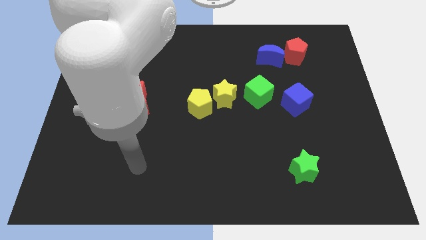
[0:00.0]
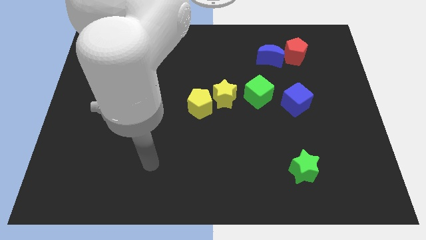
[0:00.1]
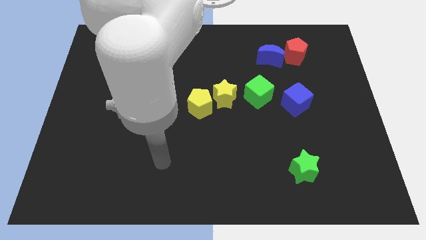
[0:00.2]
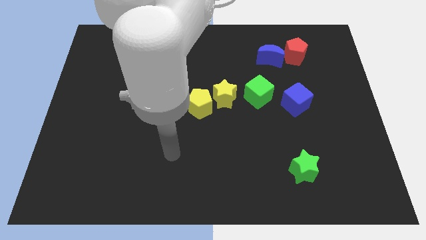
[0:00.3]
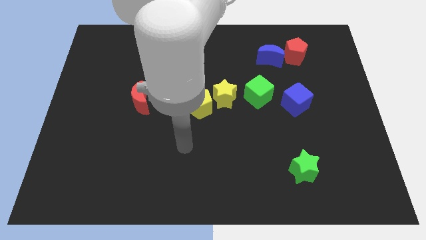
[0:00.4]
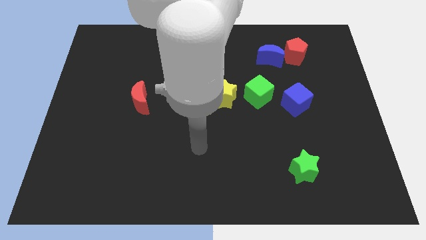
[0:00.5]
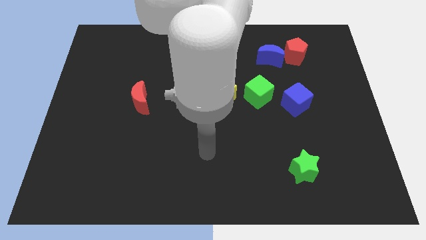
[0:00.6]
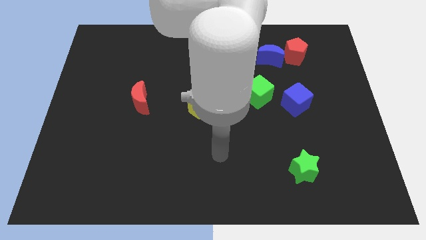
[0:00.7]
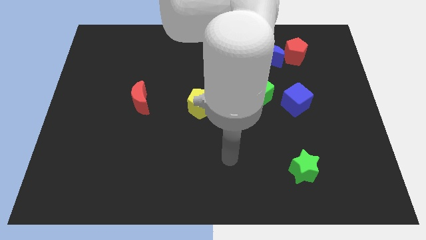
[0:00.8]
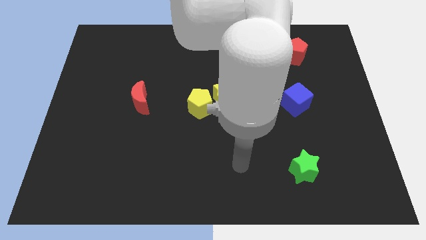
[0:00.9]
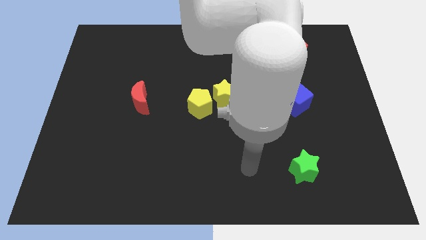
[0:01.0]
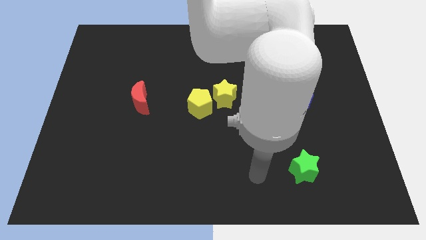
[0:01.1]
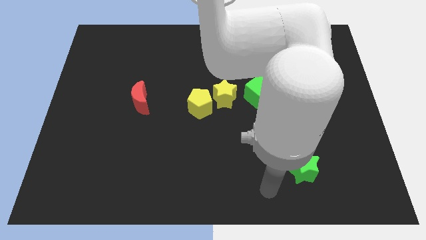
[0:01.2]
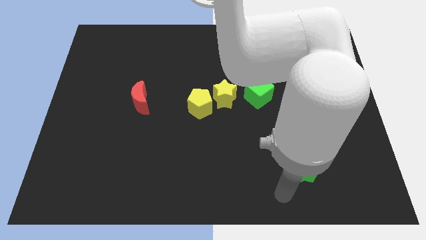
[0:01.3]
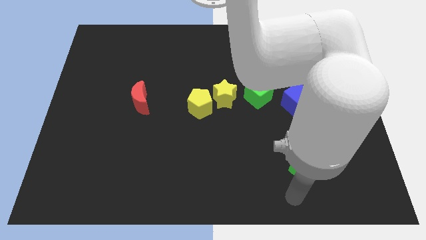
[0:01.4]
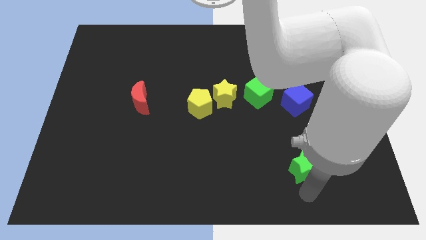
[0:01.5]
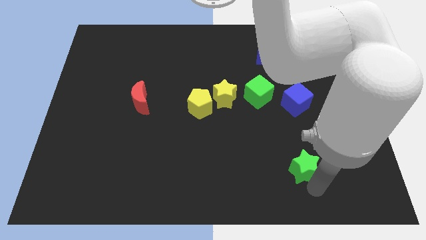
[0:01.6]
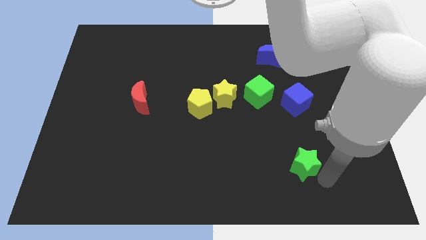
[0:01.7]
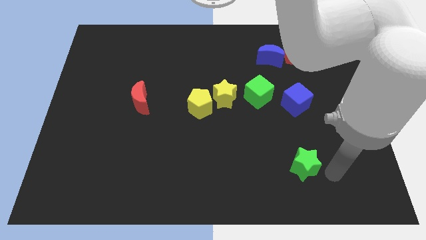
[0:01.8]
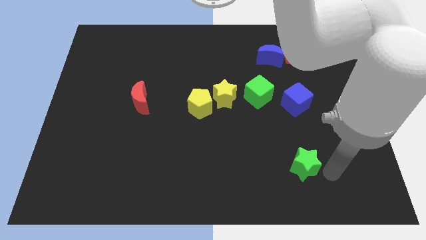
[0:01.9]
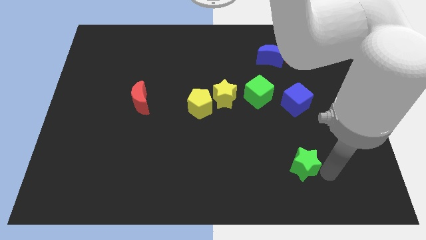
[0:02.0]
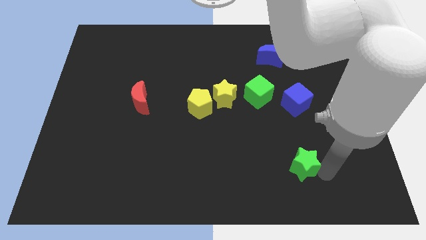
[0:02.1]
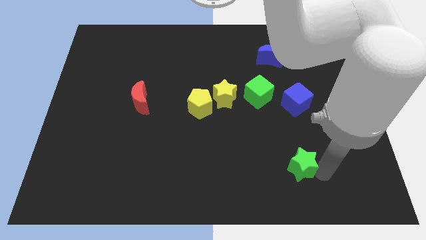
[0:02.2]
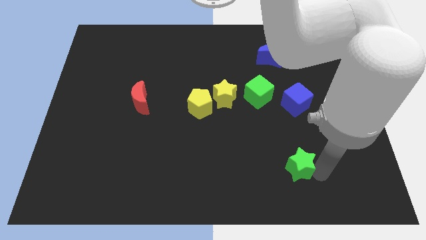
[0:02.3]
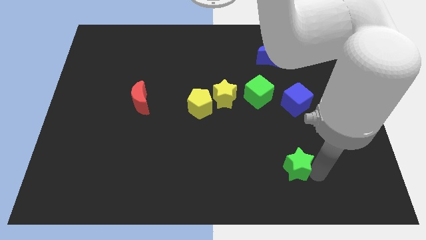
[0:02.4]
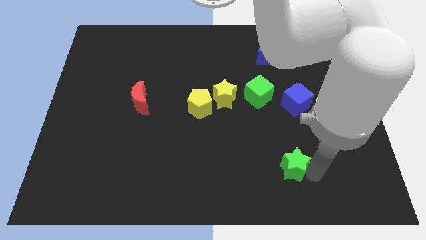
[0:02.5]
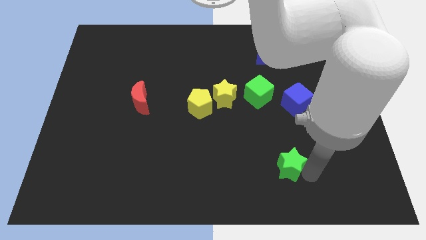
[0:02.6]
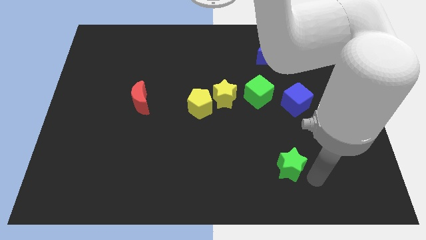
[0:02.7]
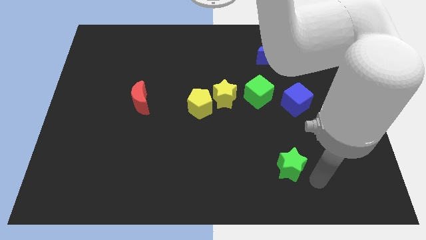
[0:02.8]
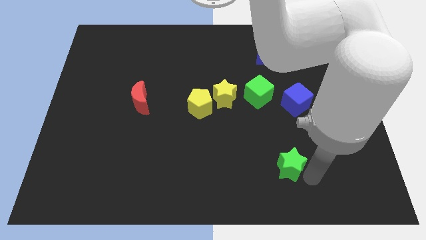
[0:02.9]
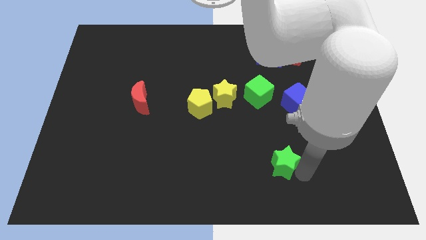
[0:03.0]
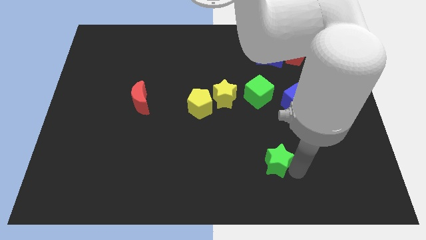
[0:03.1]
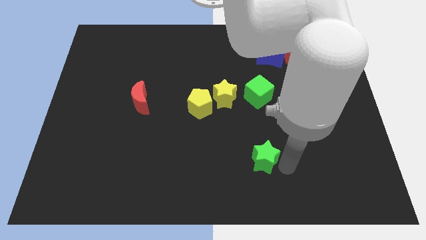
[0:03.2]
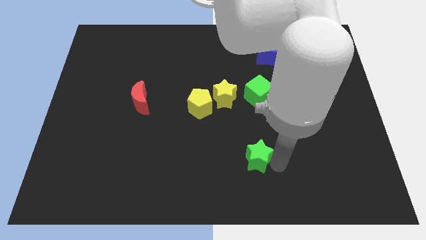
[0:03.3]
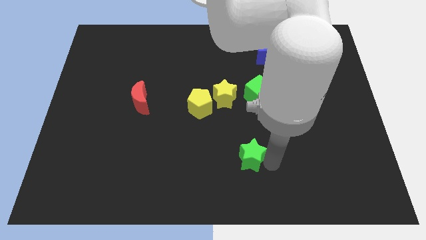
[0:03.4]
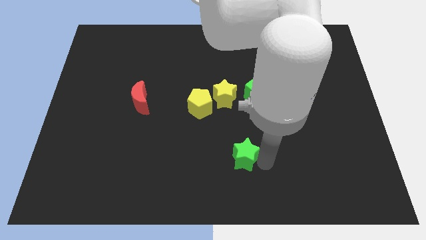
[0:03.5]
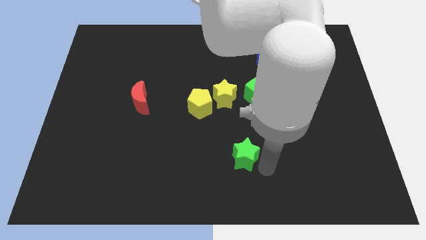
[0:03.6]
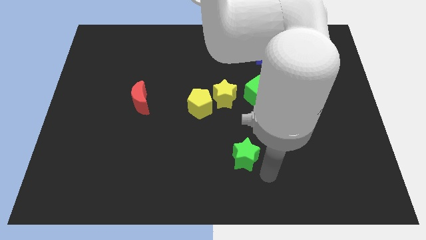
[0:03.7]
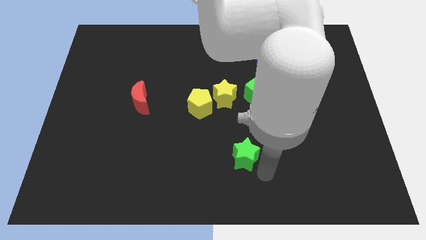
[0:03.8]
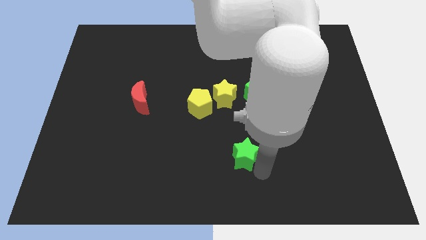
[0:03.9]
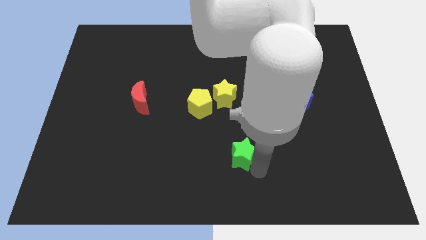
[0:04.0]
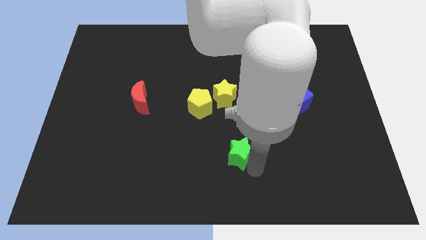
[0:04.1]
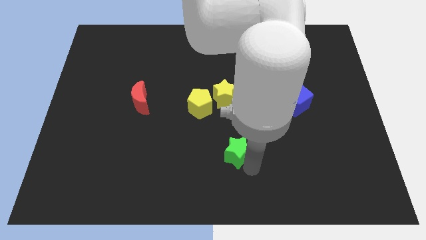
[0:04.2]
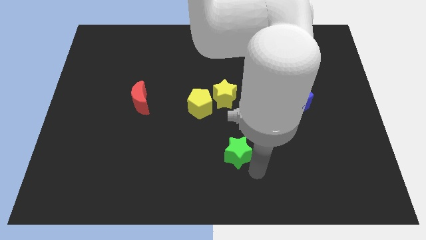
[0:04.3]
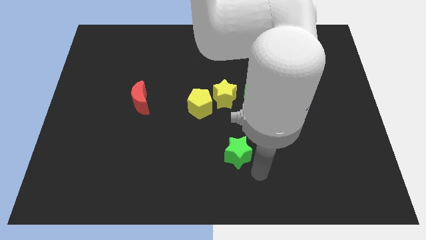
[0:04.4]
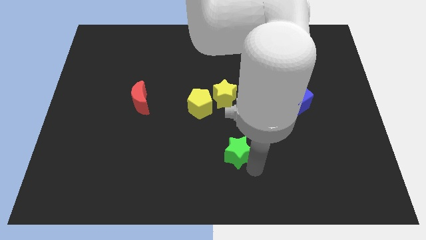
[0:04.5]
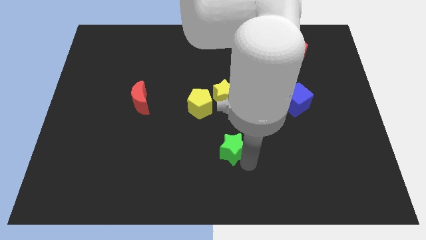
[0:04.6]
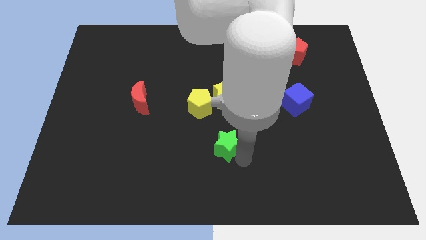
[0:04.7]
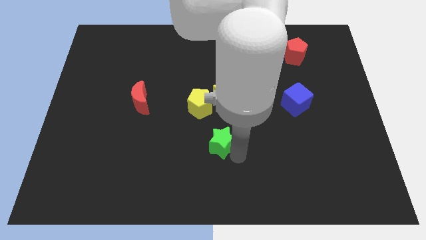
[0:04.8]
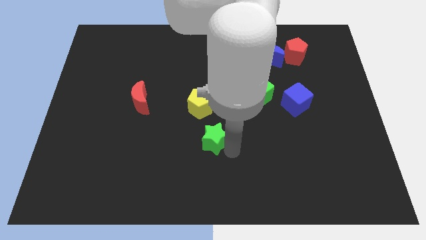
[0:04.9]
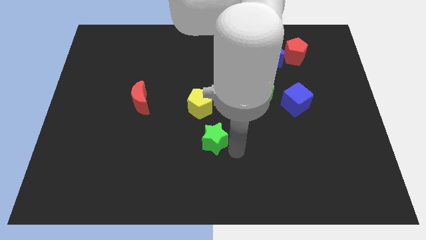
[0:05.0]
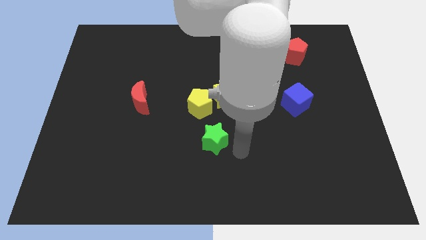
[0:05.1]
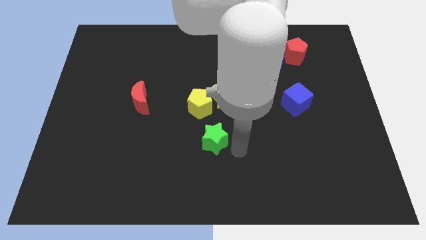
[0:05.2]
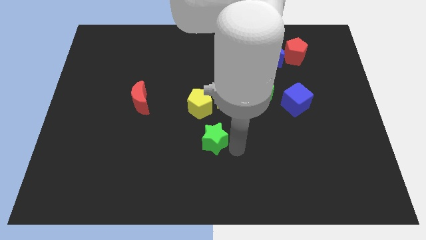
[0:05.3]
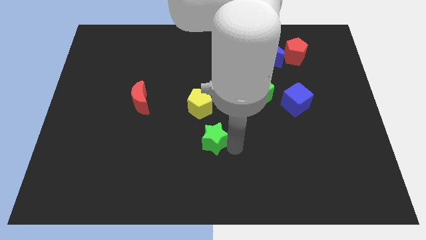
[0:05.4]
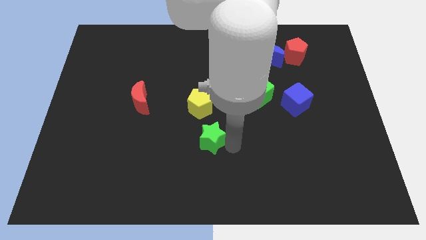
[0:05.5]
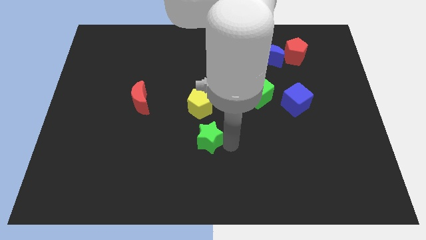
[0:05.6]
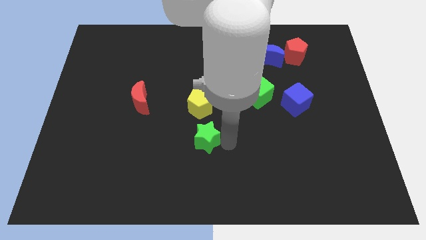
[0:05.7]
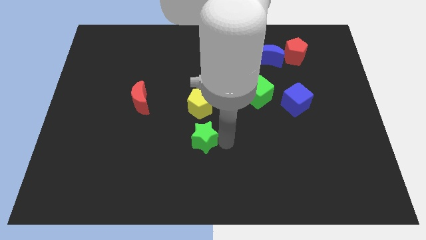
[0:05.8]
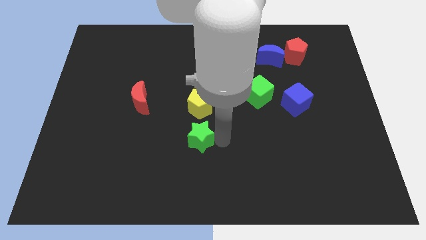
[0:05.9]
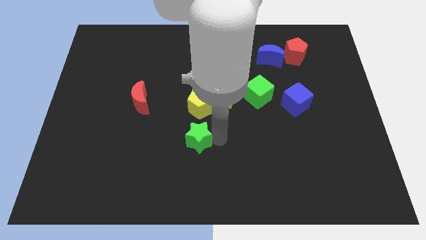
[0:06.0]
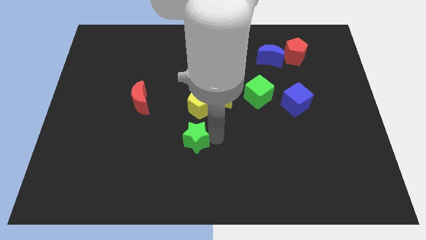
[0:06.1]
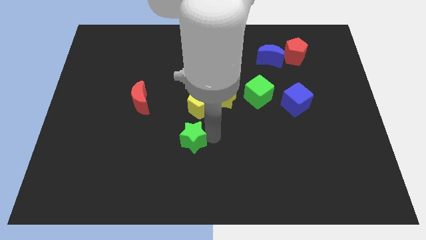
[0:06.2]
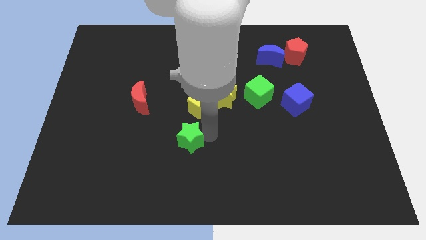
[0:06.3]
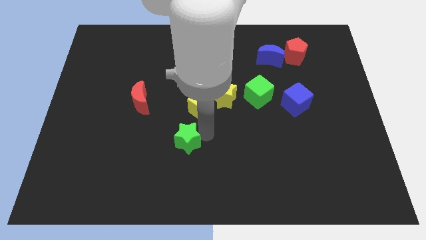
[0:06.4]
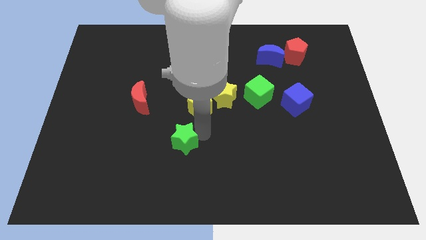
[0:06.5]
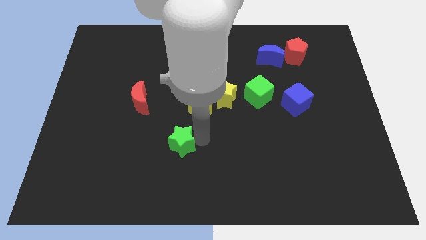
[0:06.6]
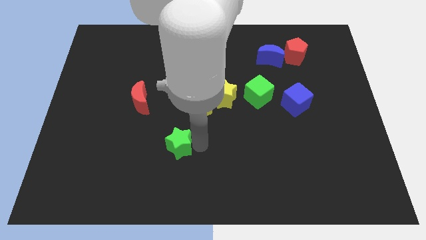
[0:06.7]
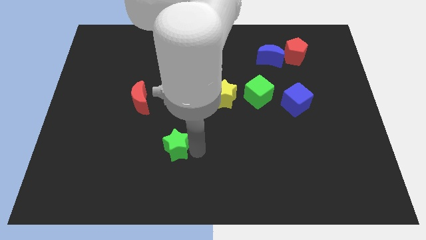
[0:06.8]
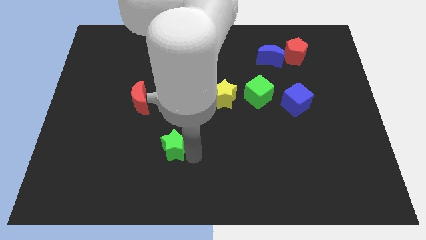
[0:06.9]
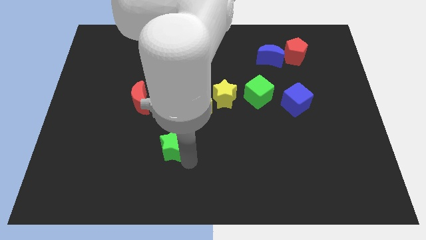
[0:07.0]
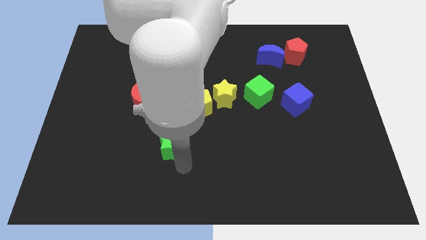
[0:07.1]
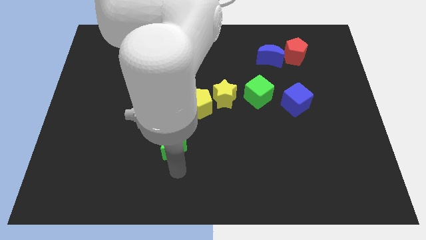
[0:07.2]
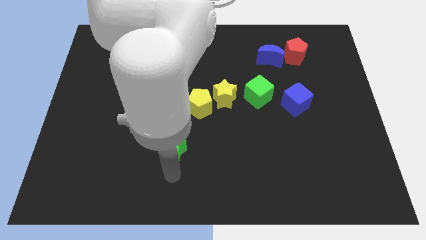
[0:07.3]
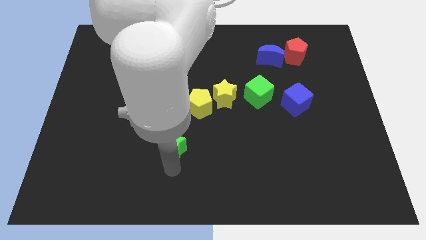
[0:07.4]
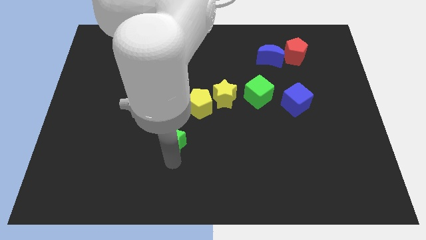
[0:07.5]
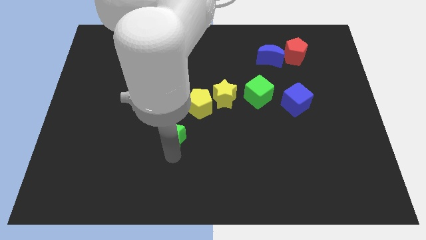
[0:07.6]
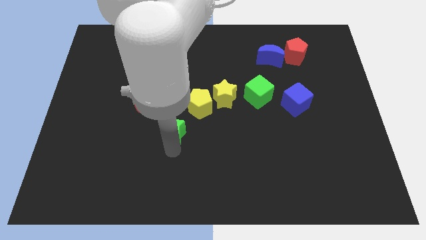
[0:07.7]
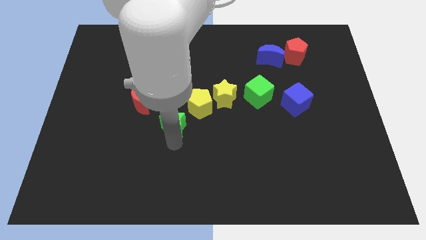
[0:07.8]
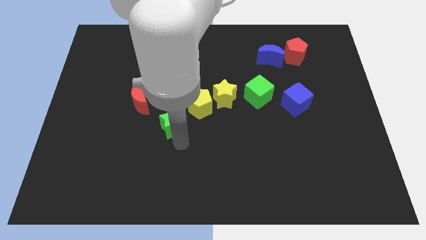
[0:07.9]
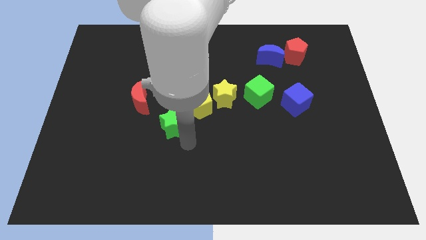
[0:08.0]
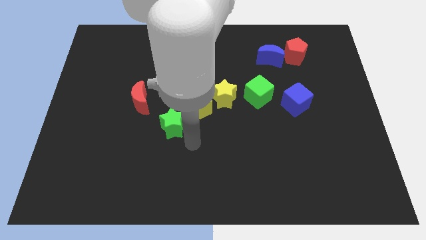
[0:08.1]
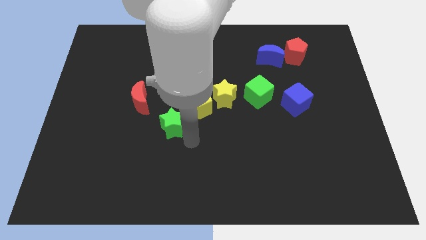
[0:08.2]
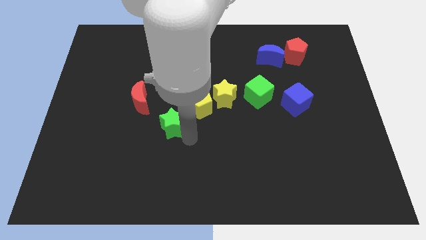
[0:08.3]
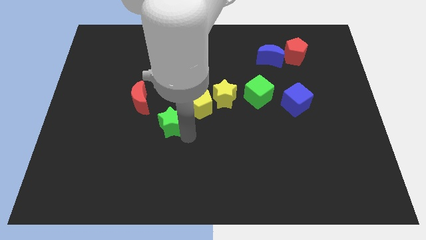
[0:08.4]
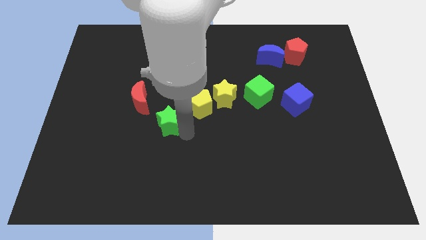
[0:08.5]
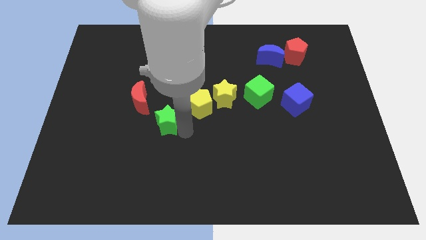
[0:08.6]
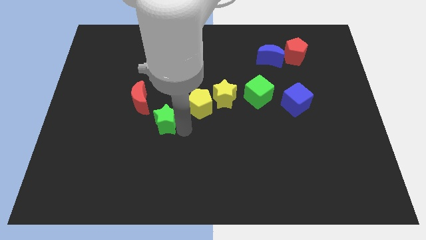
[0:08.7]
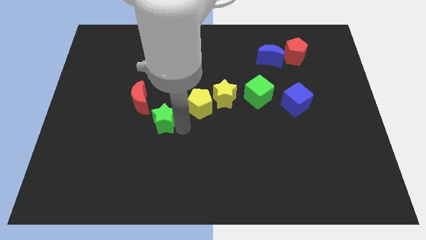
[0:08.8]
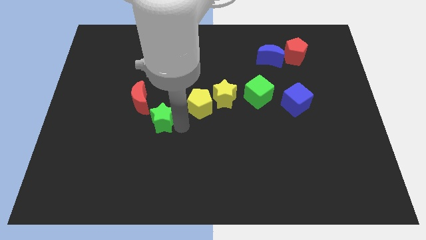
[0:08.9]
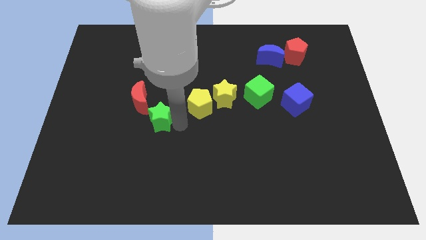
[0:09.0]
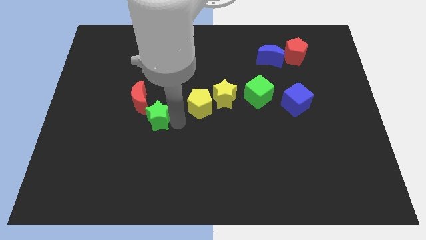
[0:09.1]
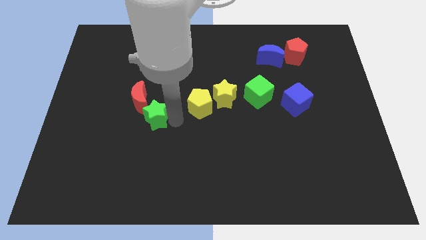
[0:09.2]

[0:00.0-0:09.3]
move the green star close to the red moon
